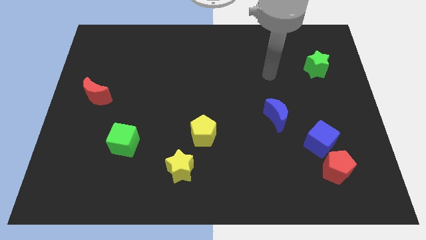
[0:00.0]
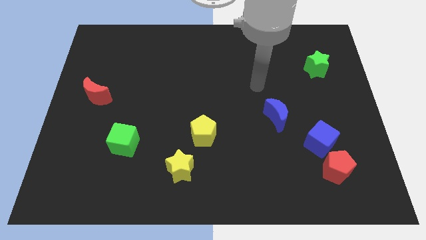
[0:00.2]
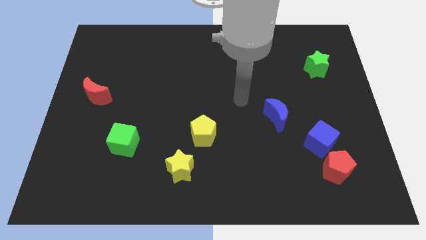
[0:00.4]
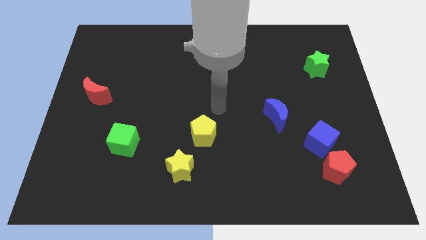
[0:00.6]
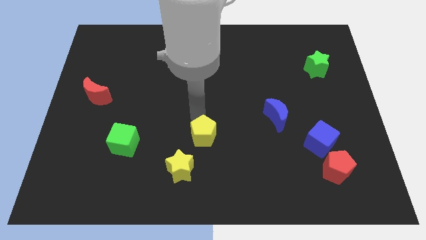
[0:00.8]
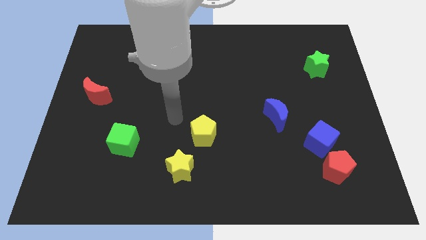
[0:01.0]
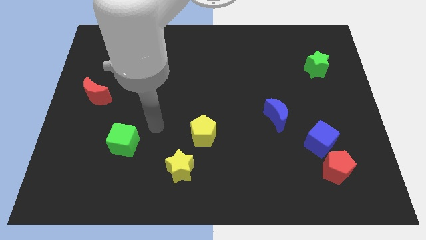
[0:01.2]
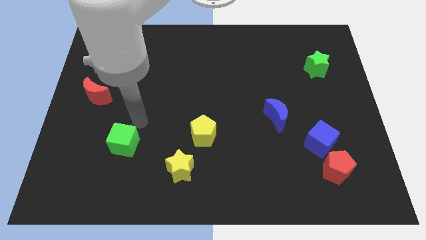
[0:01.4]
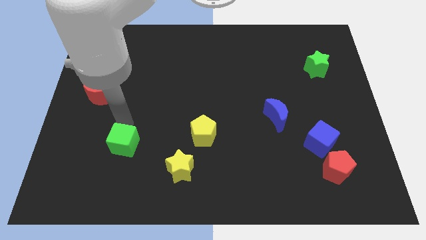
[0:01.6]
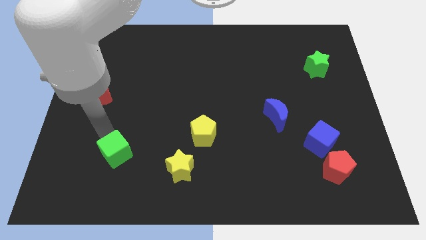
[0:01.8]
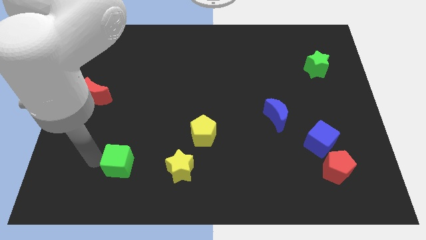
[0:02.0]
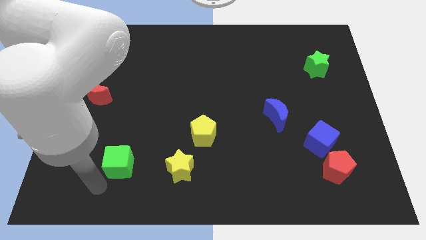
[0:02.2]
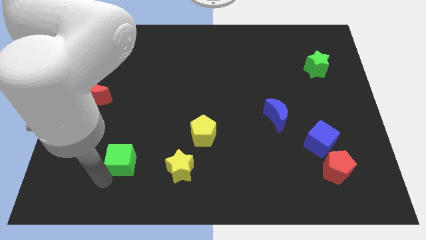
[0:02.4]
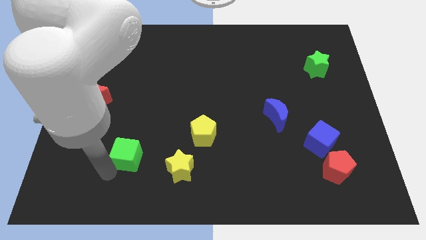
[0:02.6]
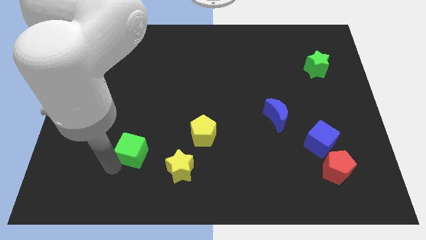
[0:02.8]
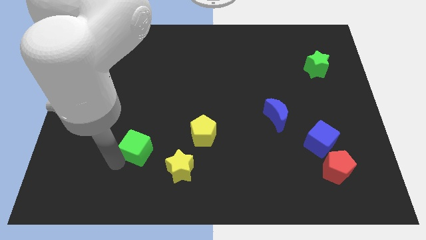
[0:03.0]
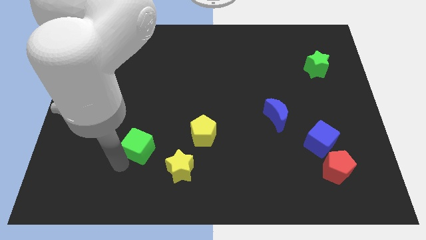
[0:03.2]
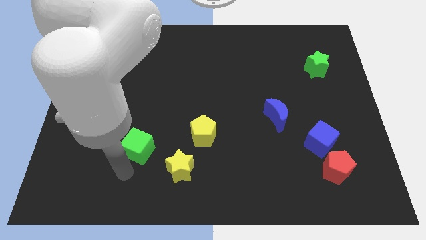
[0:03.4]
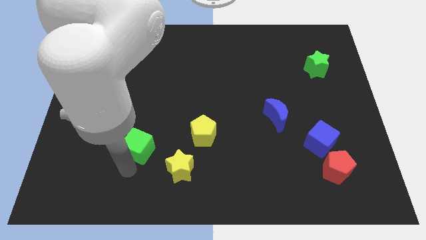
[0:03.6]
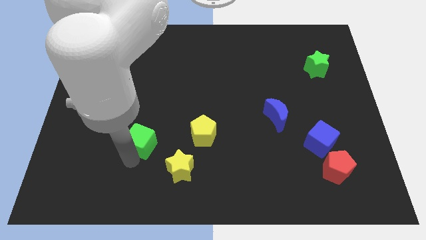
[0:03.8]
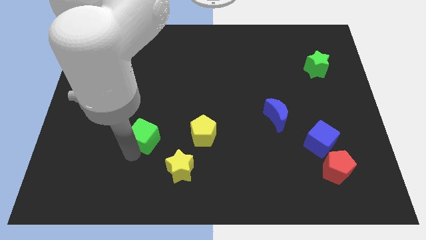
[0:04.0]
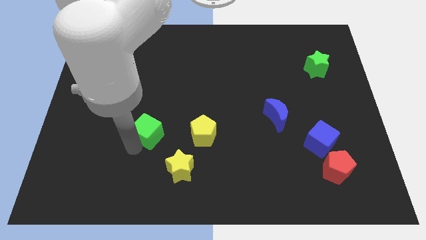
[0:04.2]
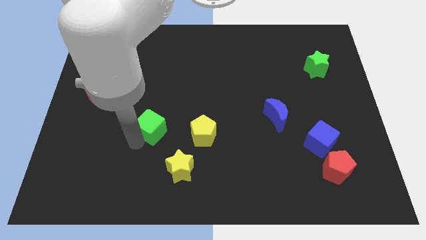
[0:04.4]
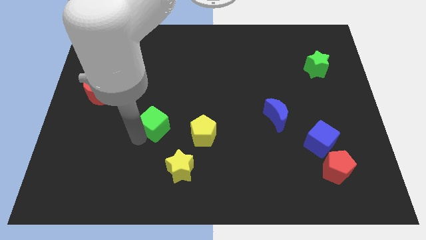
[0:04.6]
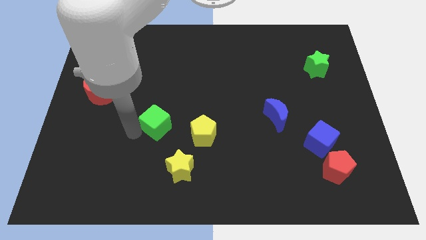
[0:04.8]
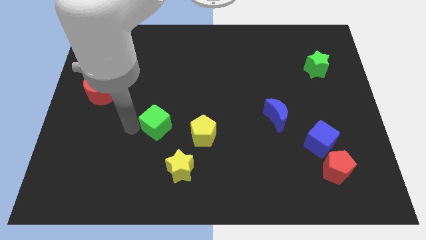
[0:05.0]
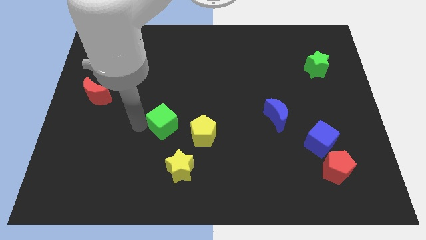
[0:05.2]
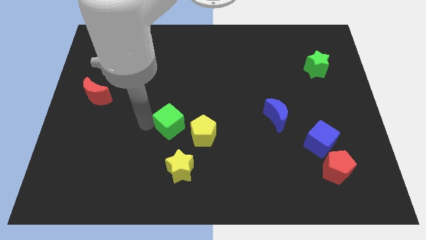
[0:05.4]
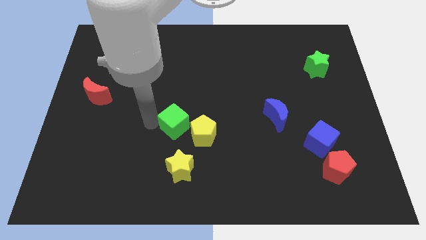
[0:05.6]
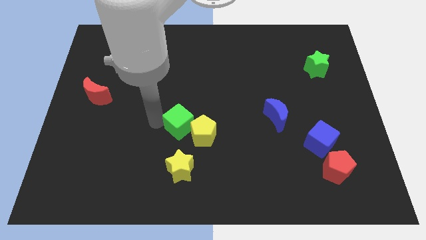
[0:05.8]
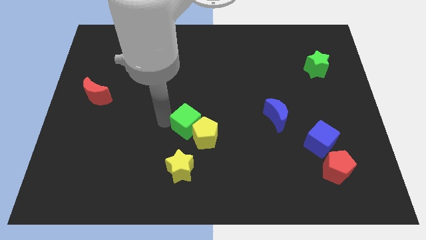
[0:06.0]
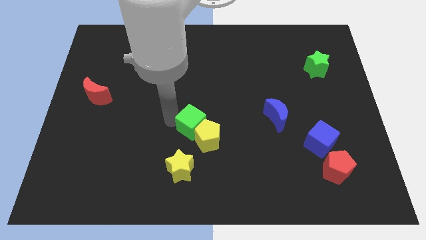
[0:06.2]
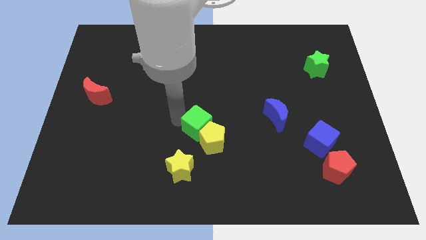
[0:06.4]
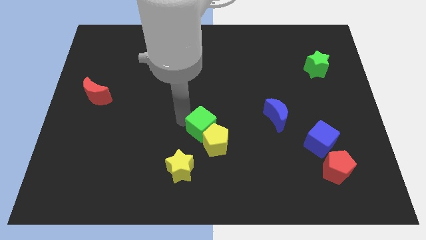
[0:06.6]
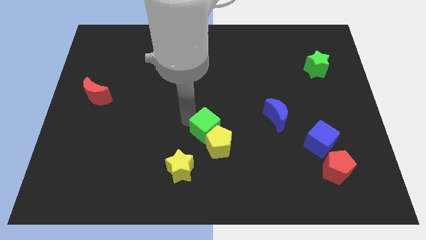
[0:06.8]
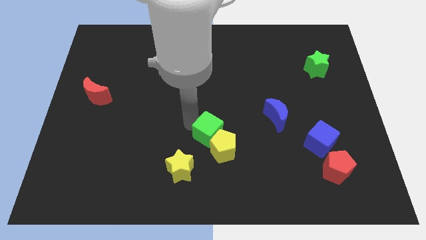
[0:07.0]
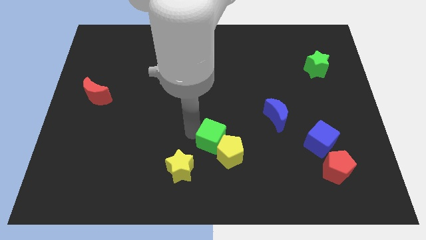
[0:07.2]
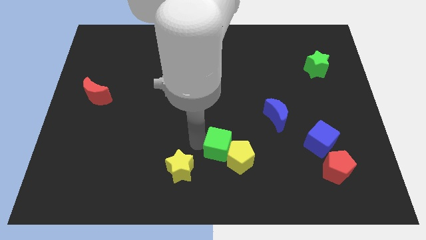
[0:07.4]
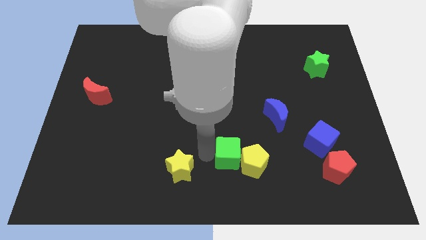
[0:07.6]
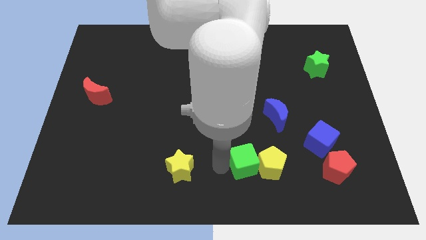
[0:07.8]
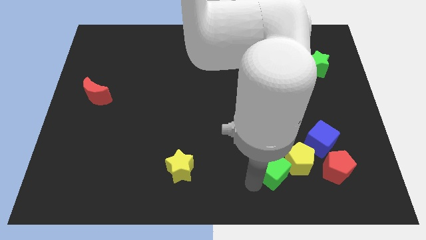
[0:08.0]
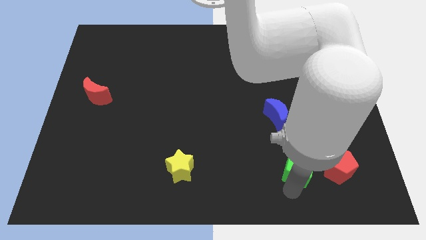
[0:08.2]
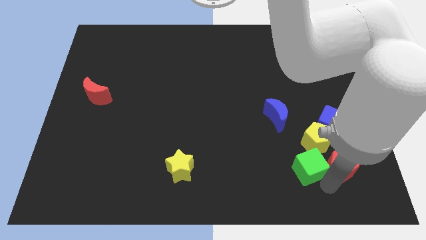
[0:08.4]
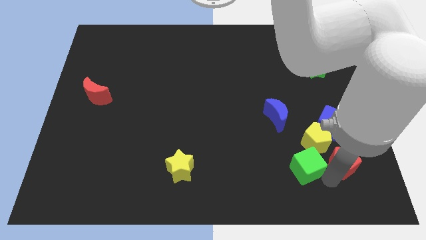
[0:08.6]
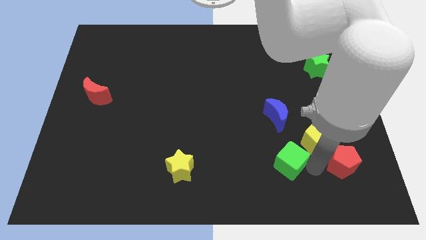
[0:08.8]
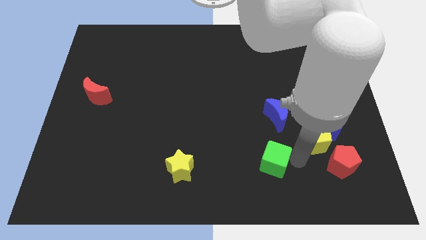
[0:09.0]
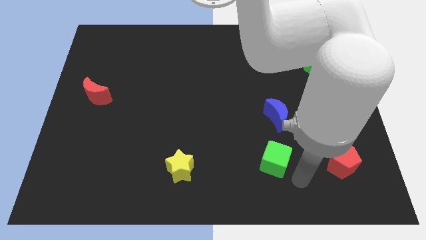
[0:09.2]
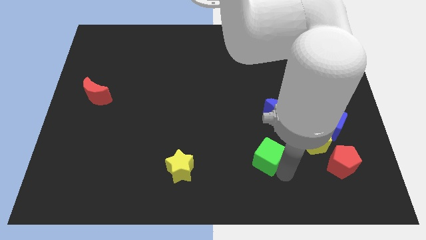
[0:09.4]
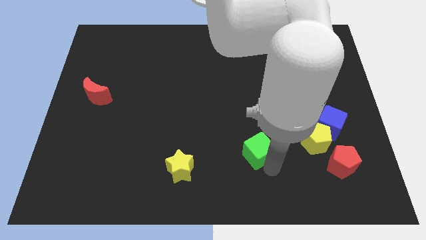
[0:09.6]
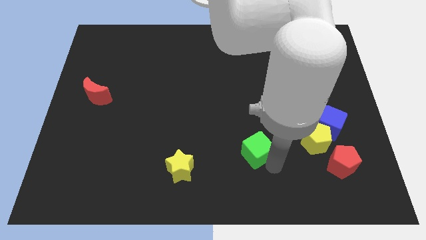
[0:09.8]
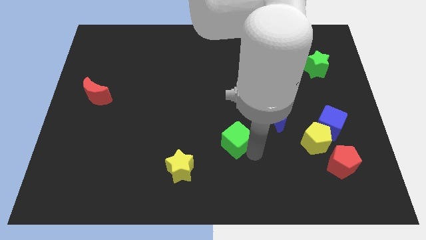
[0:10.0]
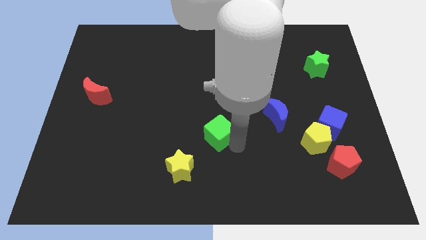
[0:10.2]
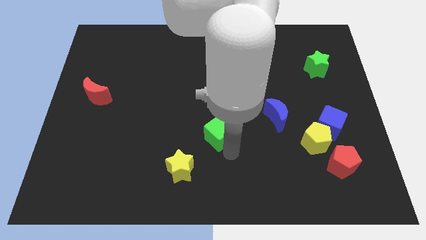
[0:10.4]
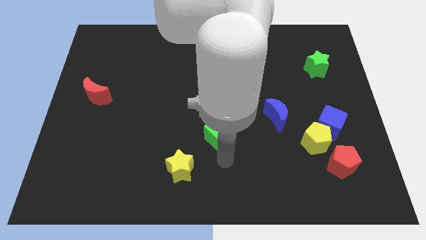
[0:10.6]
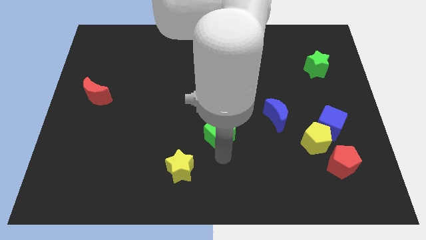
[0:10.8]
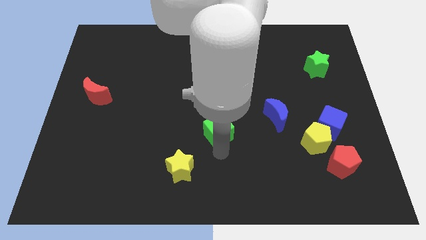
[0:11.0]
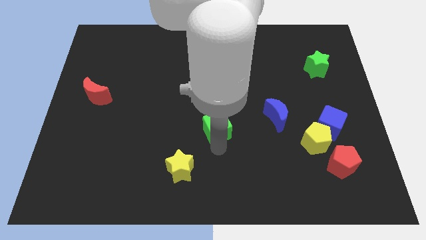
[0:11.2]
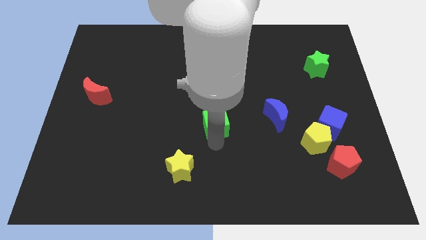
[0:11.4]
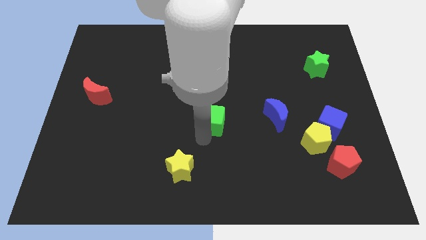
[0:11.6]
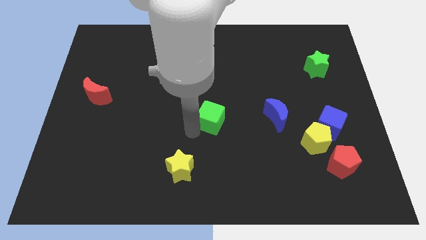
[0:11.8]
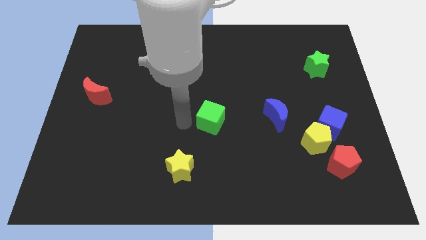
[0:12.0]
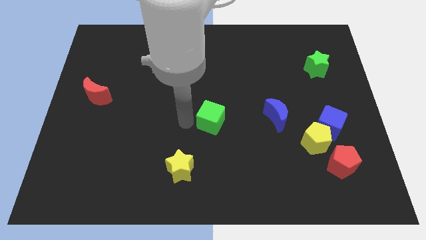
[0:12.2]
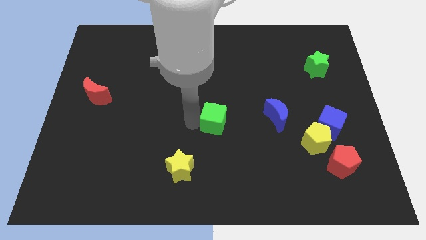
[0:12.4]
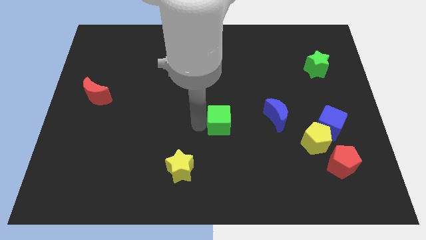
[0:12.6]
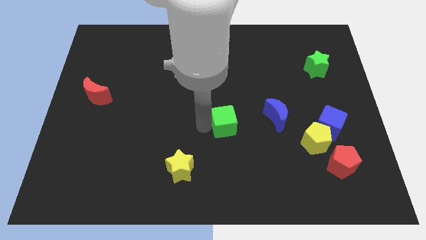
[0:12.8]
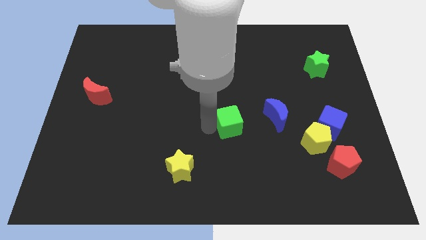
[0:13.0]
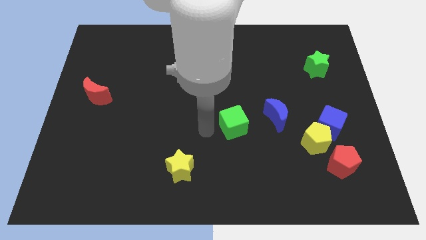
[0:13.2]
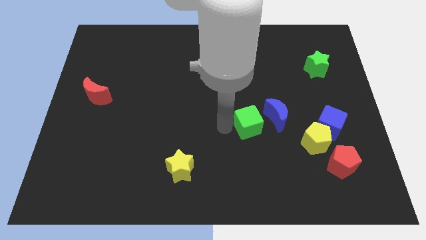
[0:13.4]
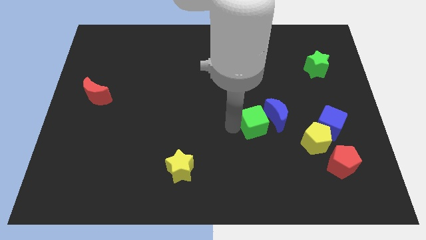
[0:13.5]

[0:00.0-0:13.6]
slide the green cube close to the blue moon

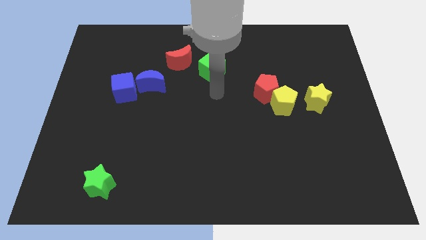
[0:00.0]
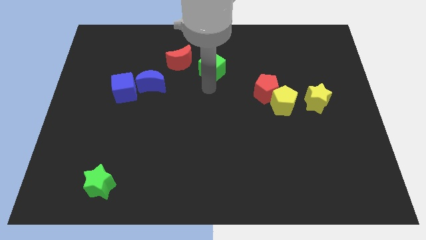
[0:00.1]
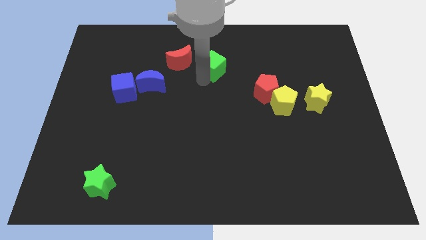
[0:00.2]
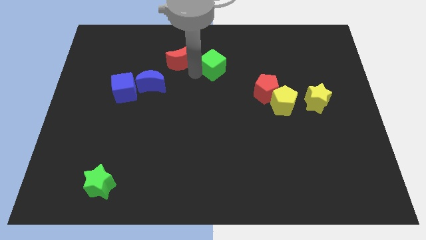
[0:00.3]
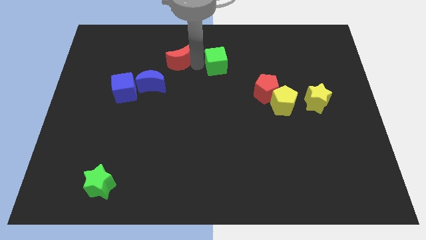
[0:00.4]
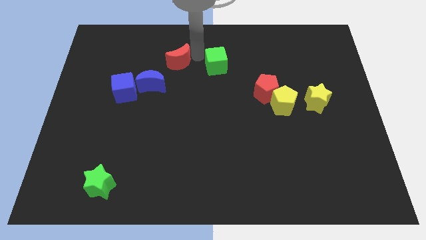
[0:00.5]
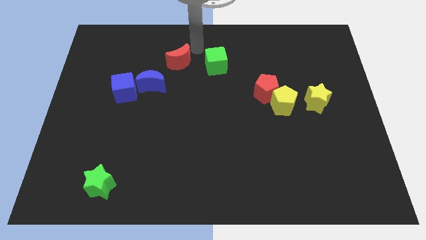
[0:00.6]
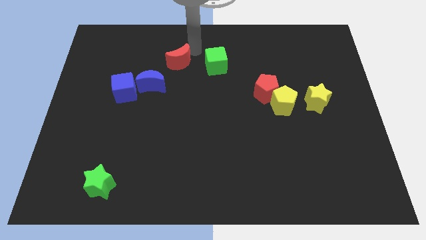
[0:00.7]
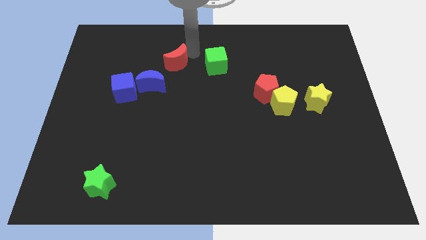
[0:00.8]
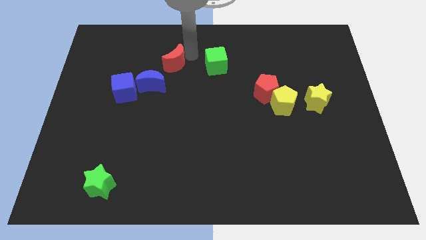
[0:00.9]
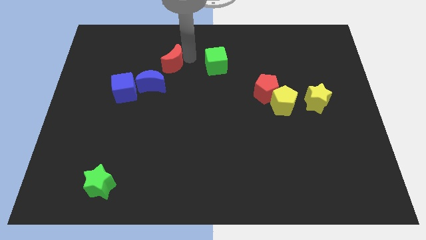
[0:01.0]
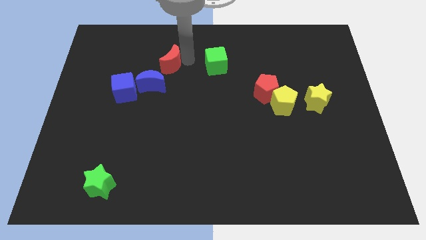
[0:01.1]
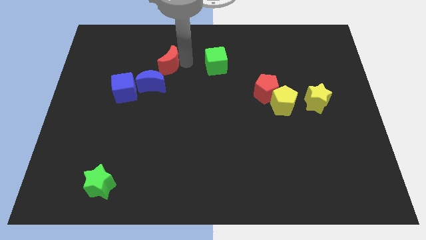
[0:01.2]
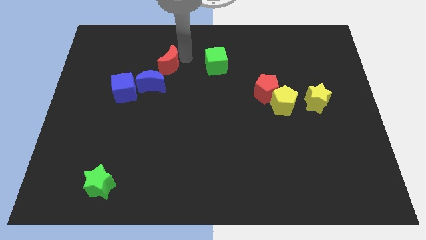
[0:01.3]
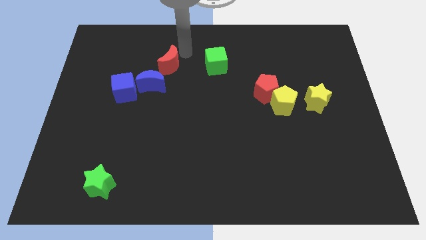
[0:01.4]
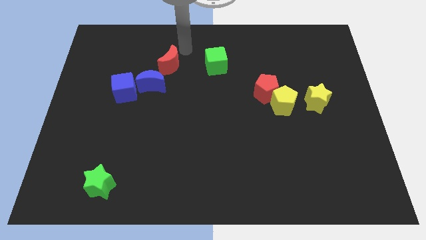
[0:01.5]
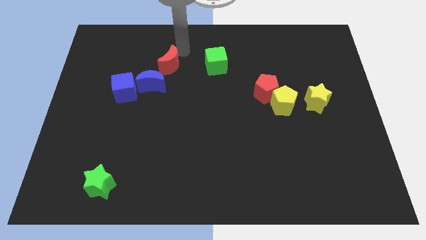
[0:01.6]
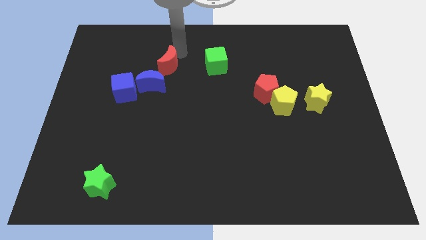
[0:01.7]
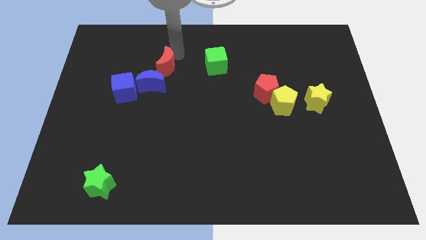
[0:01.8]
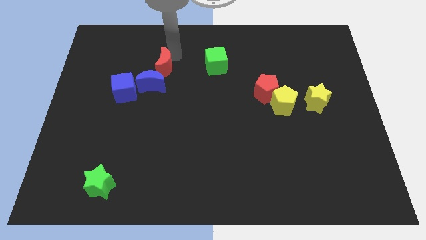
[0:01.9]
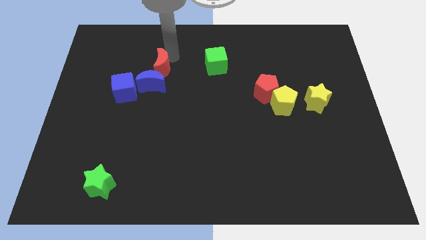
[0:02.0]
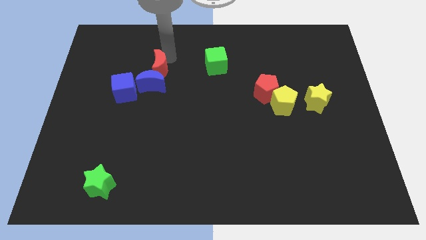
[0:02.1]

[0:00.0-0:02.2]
put the red moon towards the blue moon
